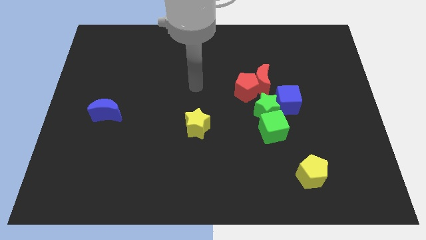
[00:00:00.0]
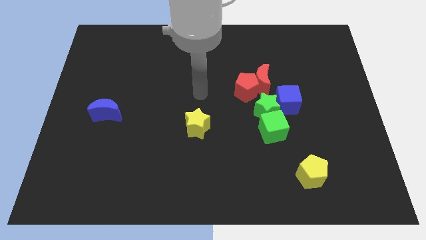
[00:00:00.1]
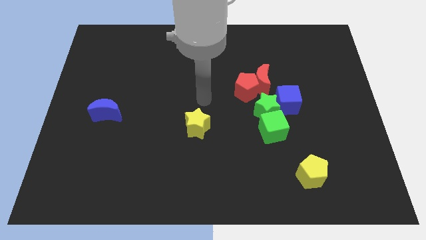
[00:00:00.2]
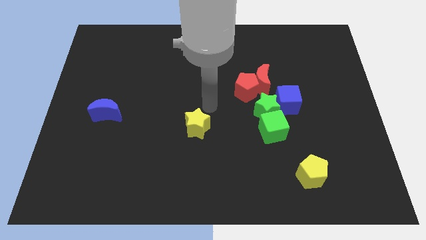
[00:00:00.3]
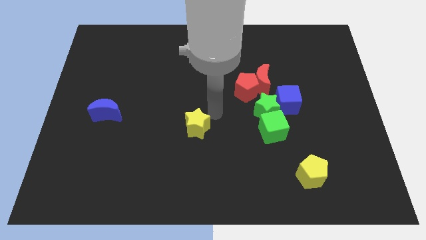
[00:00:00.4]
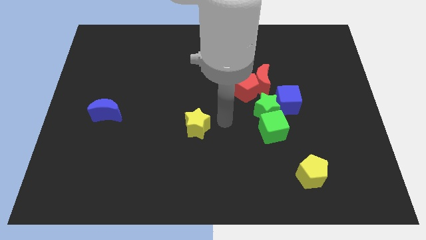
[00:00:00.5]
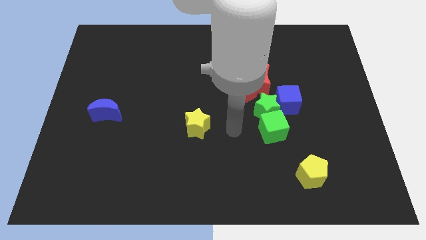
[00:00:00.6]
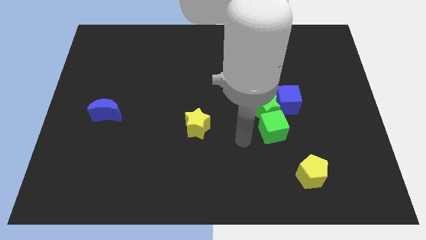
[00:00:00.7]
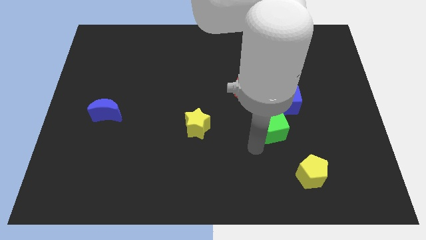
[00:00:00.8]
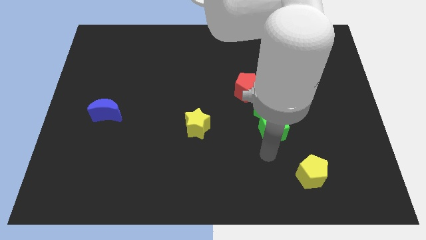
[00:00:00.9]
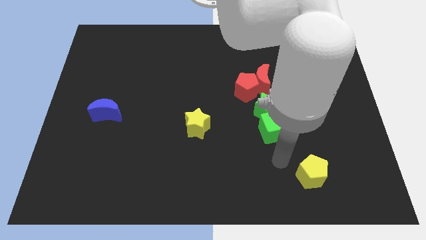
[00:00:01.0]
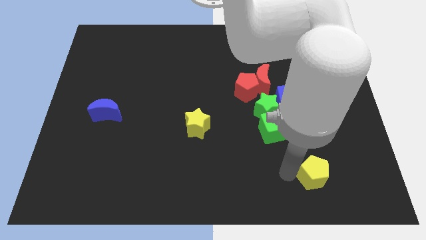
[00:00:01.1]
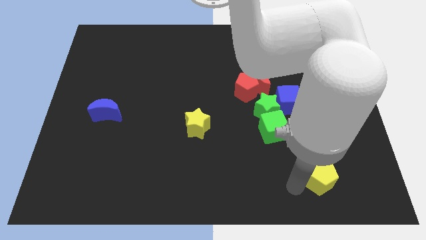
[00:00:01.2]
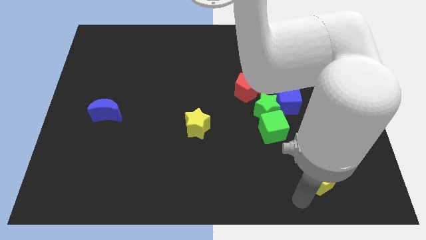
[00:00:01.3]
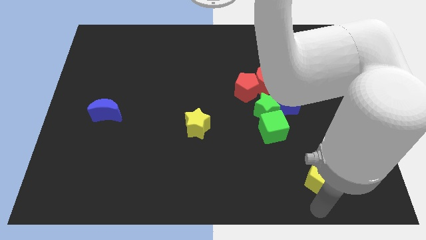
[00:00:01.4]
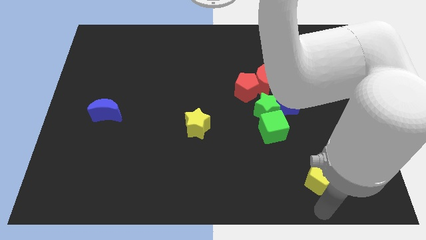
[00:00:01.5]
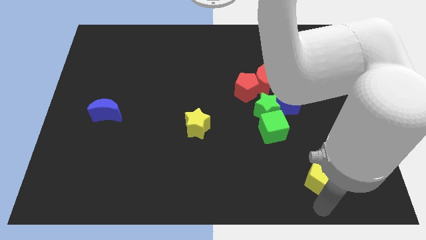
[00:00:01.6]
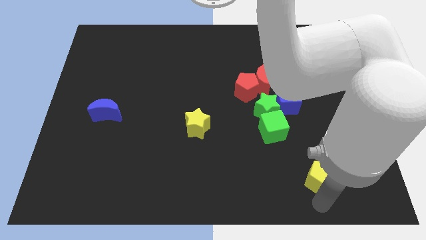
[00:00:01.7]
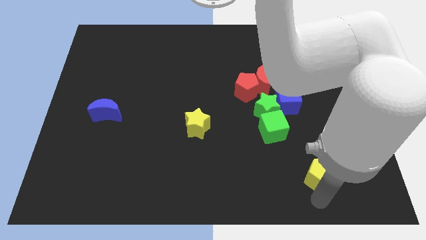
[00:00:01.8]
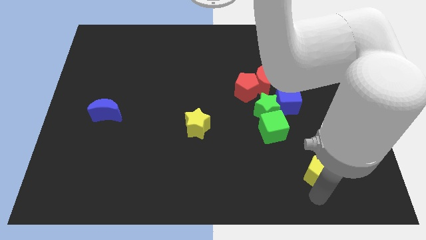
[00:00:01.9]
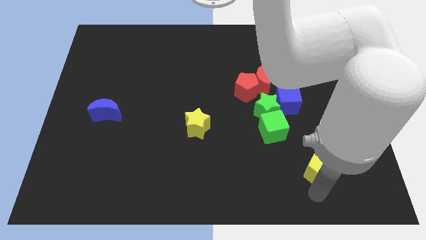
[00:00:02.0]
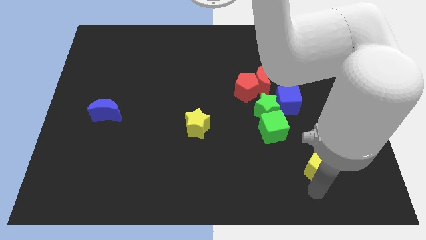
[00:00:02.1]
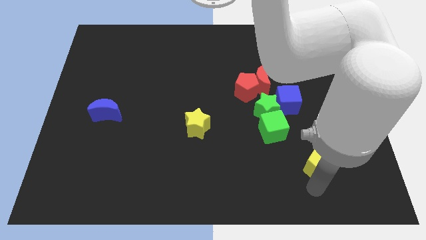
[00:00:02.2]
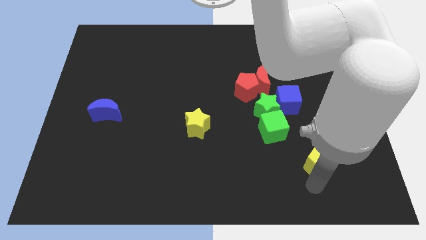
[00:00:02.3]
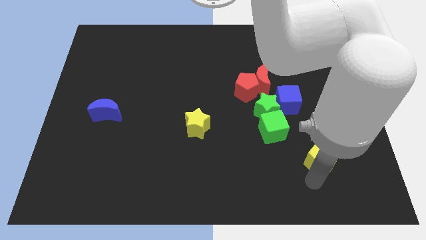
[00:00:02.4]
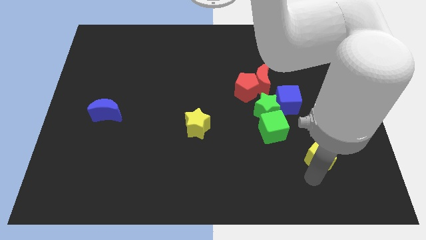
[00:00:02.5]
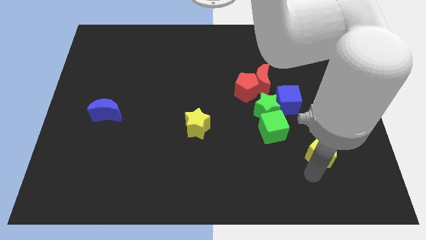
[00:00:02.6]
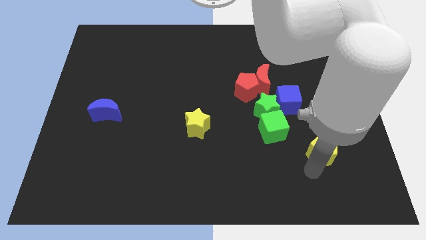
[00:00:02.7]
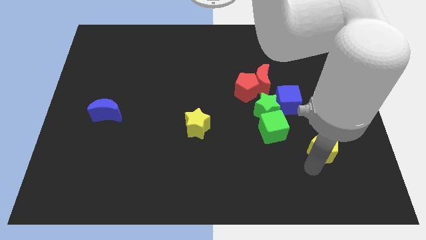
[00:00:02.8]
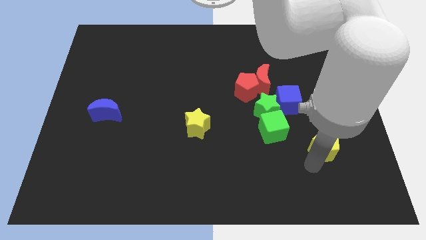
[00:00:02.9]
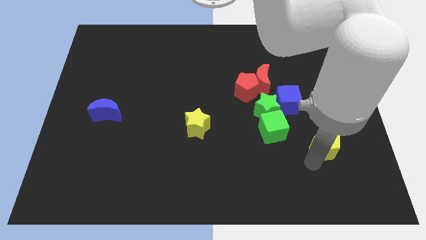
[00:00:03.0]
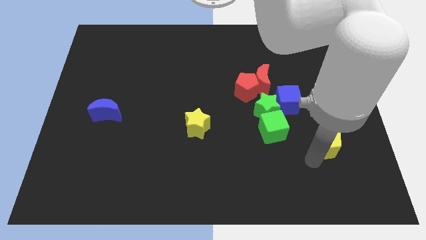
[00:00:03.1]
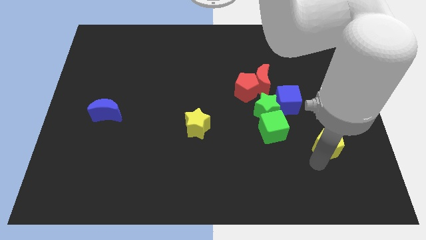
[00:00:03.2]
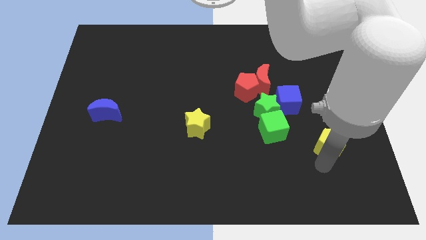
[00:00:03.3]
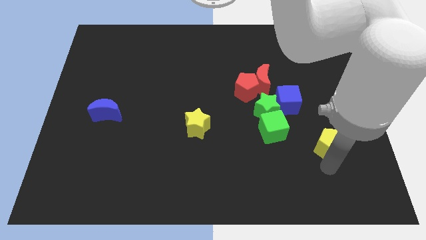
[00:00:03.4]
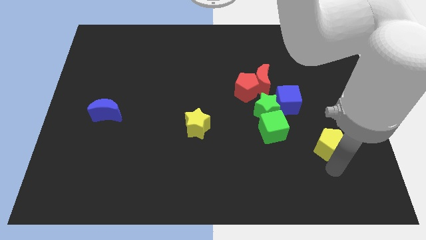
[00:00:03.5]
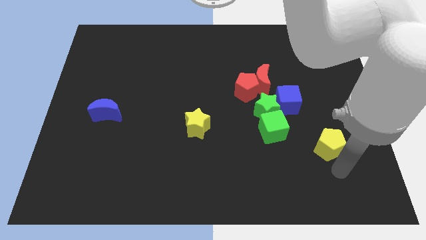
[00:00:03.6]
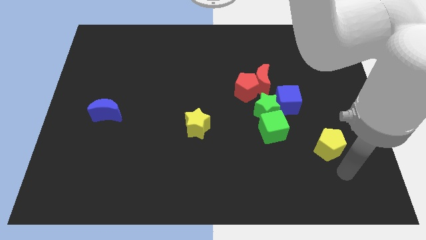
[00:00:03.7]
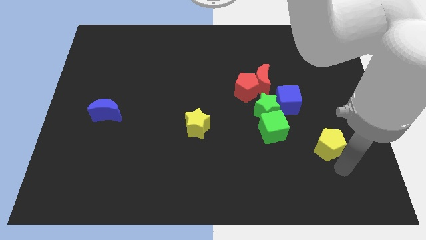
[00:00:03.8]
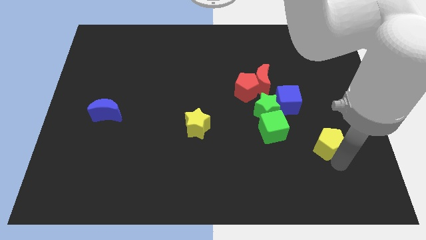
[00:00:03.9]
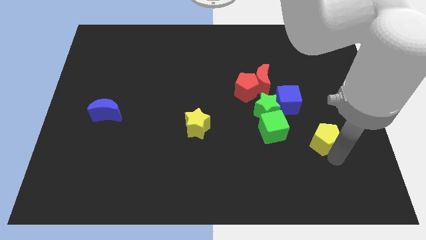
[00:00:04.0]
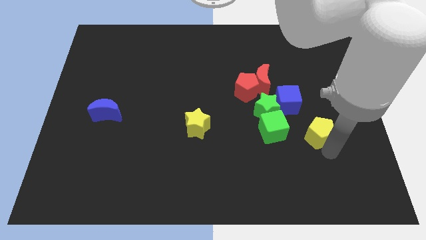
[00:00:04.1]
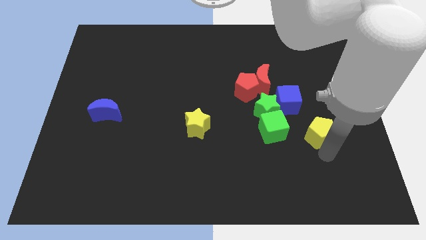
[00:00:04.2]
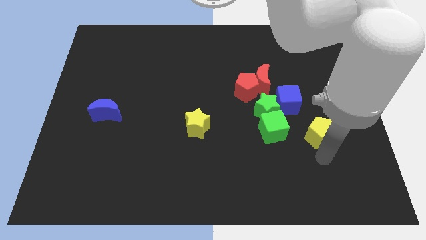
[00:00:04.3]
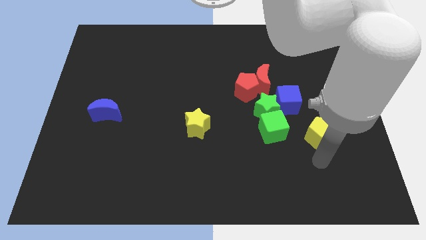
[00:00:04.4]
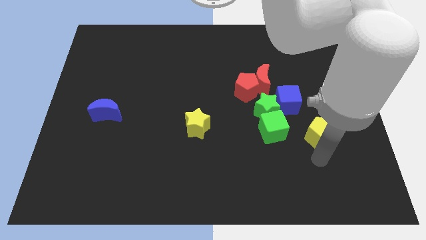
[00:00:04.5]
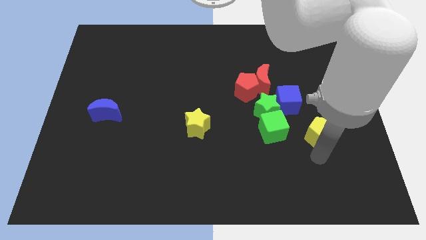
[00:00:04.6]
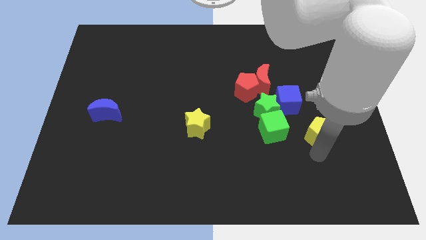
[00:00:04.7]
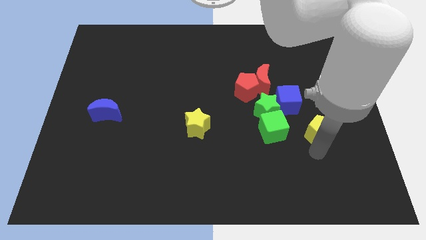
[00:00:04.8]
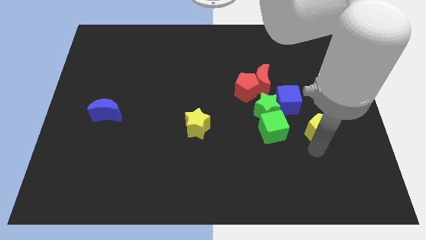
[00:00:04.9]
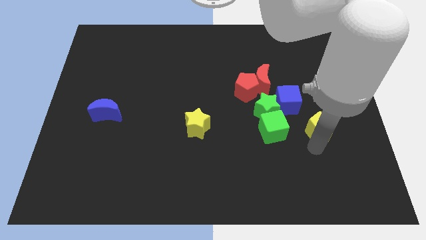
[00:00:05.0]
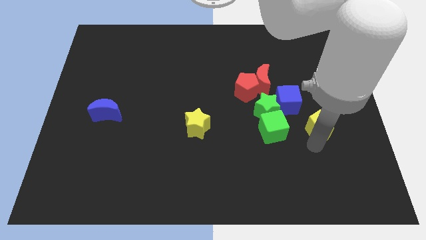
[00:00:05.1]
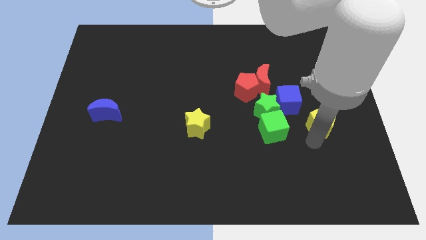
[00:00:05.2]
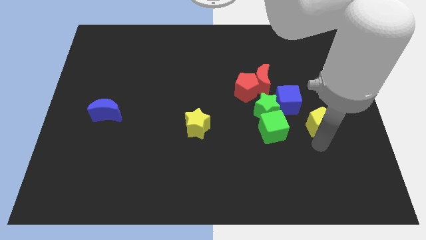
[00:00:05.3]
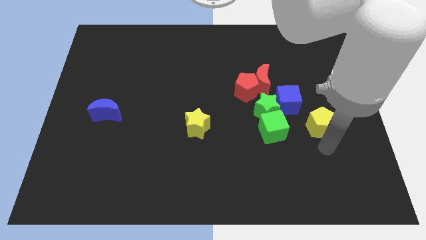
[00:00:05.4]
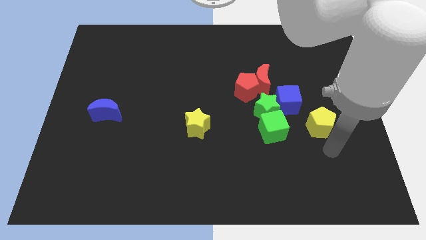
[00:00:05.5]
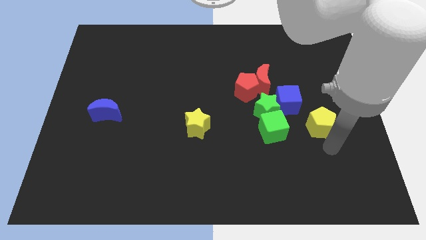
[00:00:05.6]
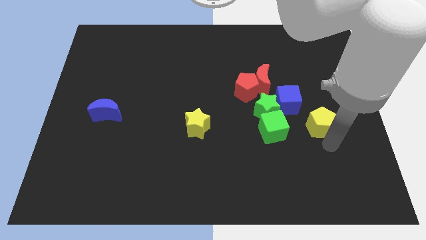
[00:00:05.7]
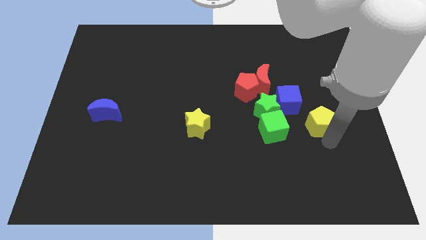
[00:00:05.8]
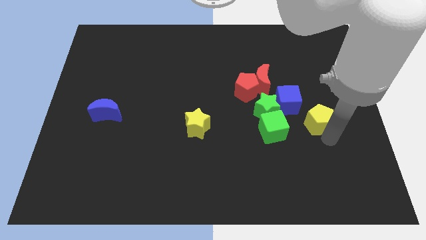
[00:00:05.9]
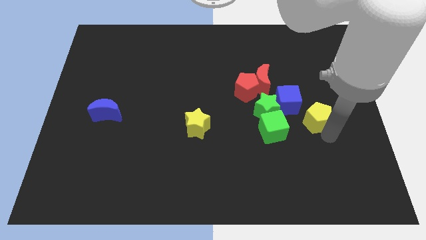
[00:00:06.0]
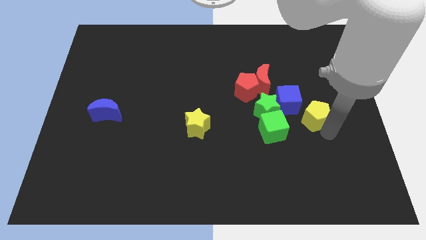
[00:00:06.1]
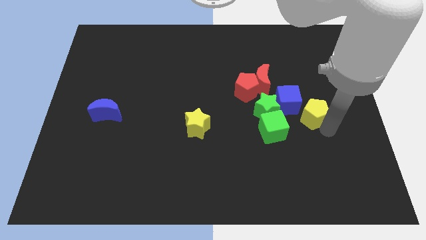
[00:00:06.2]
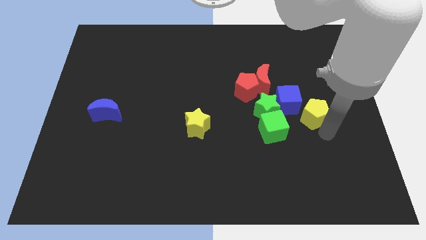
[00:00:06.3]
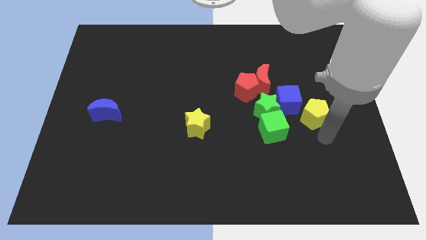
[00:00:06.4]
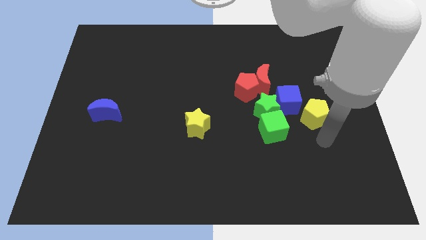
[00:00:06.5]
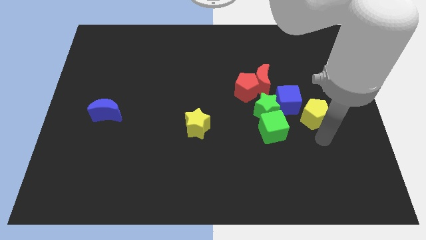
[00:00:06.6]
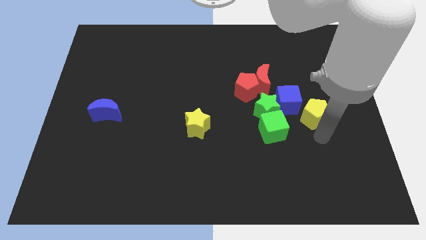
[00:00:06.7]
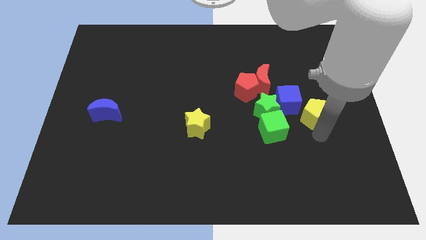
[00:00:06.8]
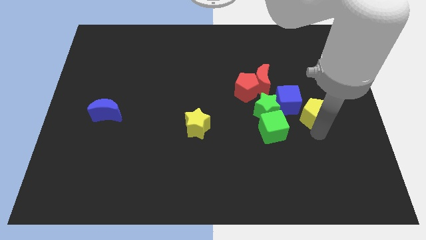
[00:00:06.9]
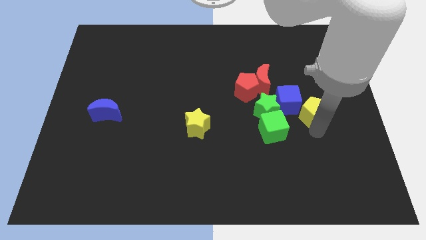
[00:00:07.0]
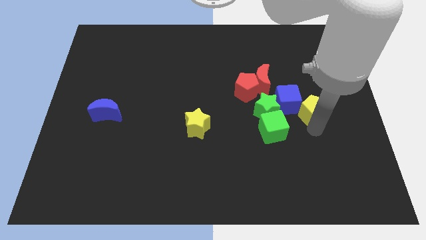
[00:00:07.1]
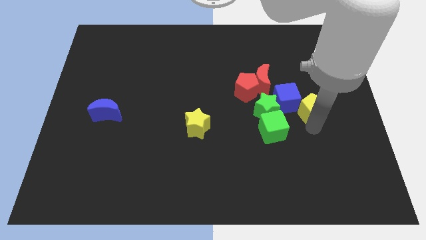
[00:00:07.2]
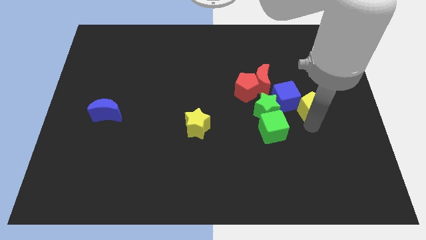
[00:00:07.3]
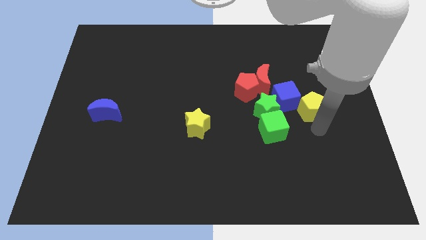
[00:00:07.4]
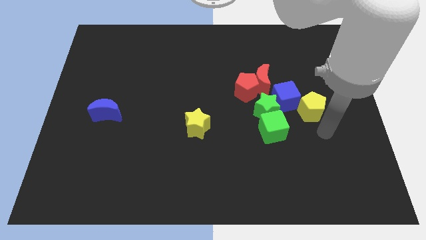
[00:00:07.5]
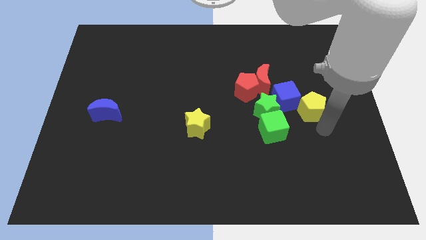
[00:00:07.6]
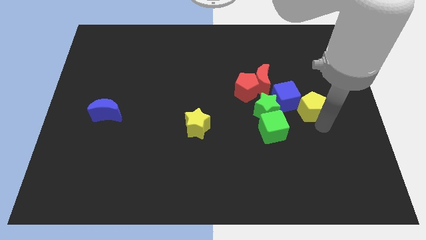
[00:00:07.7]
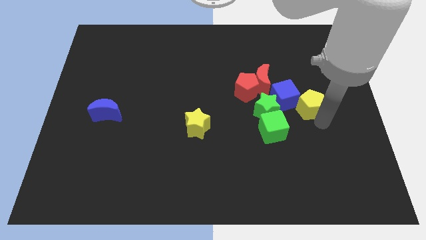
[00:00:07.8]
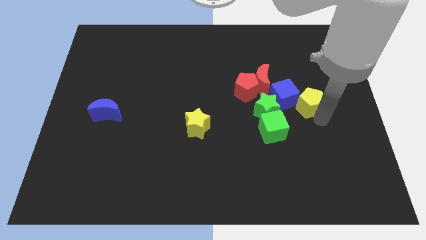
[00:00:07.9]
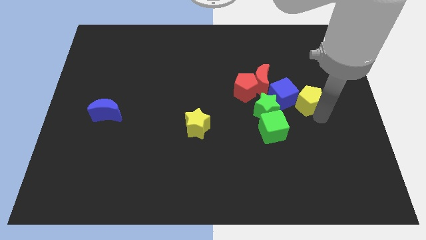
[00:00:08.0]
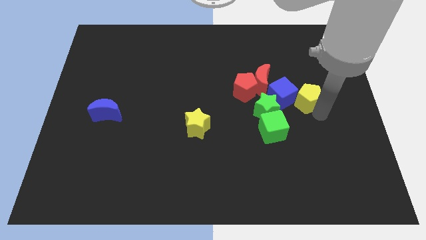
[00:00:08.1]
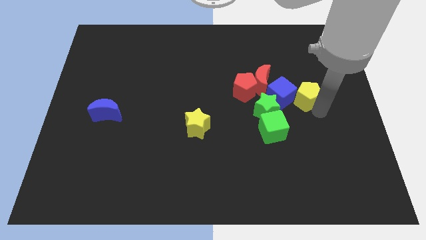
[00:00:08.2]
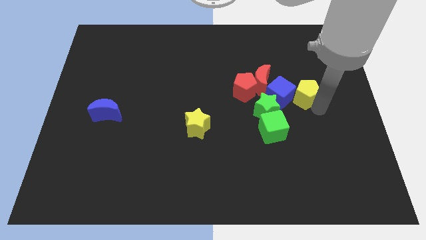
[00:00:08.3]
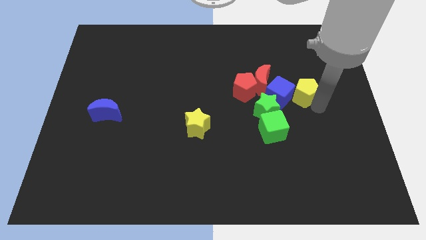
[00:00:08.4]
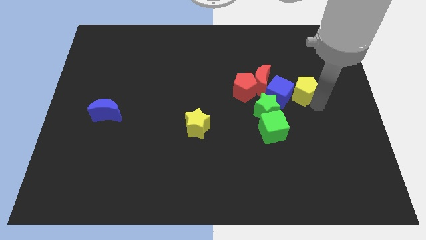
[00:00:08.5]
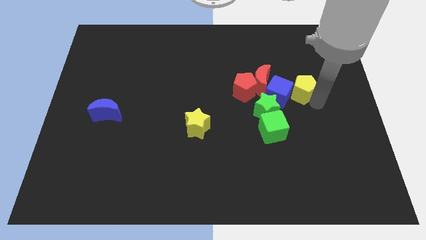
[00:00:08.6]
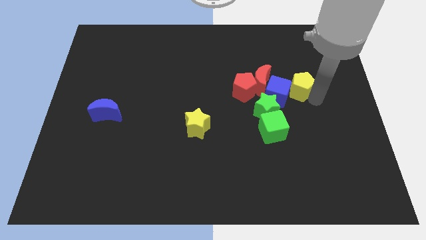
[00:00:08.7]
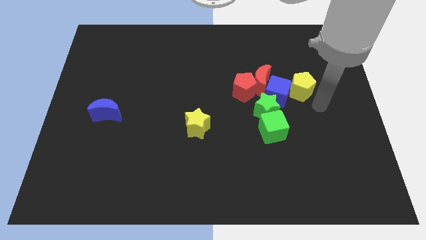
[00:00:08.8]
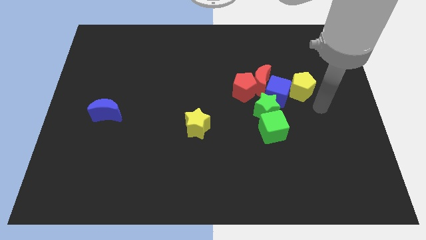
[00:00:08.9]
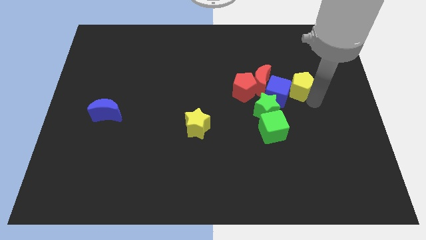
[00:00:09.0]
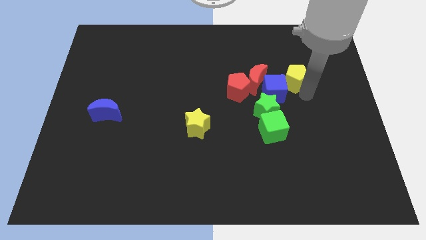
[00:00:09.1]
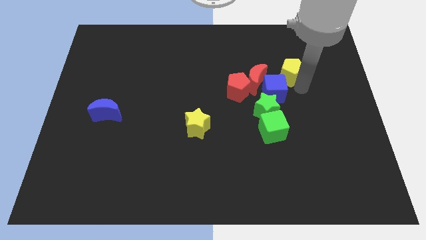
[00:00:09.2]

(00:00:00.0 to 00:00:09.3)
put the yellow pentagon to the top of the blue cube
